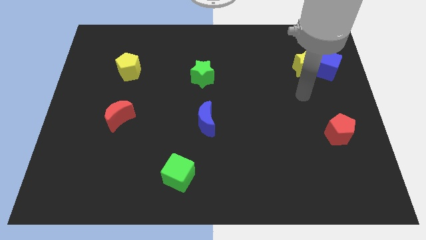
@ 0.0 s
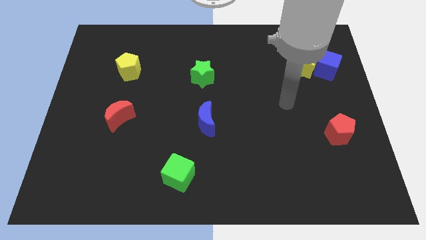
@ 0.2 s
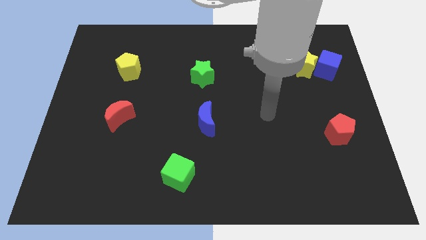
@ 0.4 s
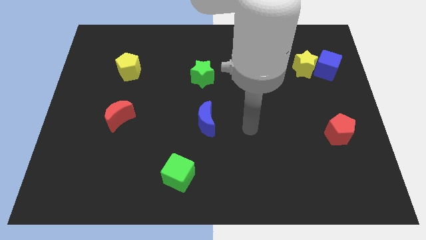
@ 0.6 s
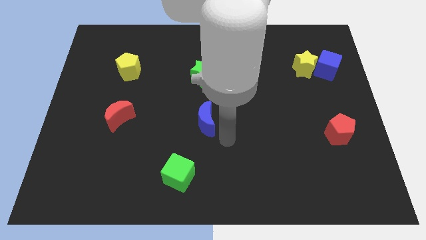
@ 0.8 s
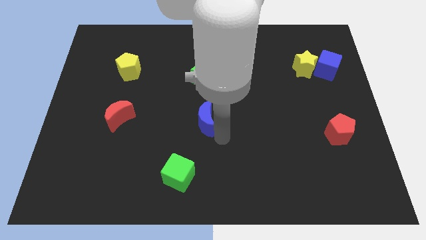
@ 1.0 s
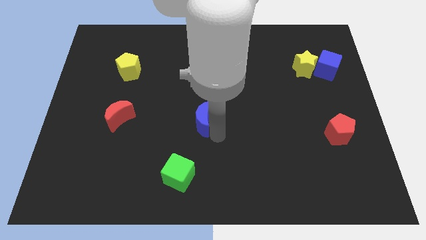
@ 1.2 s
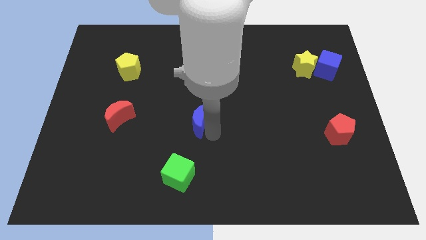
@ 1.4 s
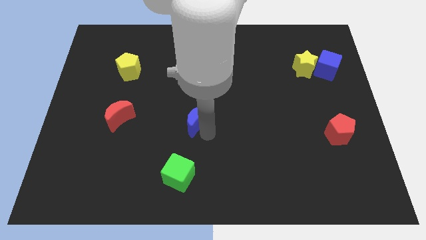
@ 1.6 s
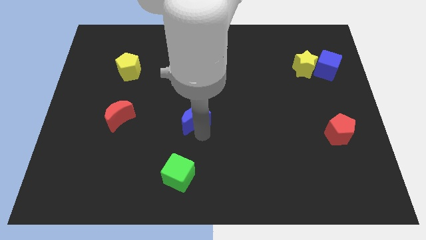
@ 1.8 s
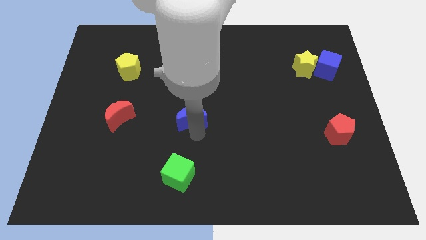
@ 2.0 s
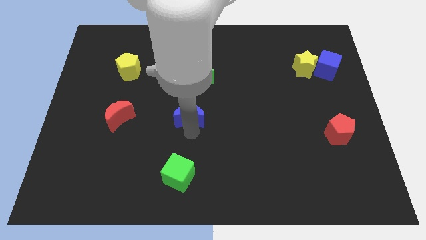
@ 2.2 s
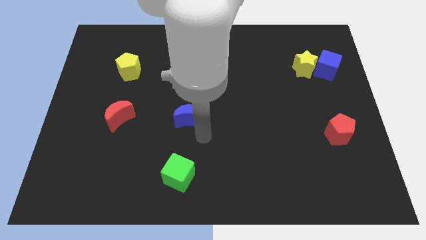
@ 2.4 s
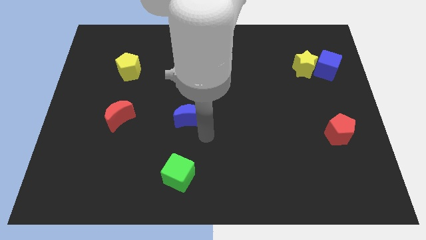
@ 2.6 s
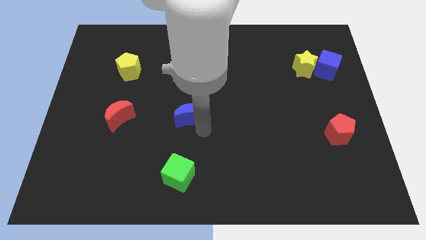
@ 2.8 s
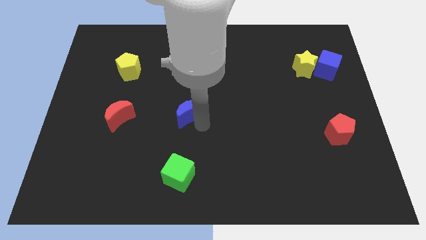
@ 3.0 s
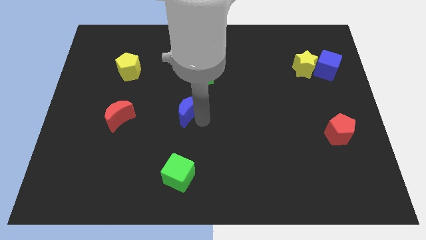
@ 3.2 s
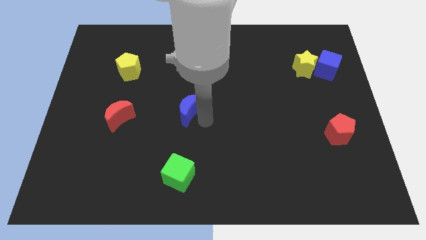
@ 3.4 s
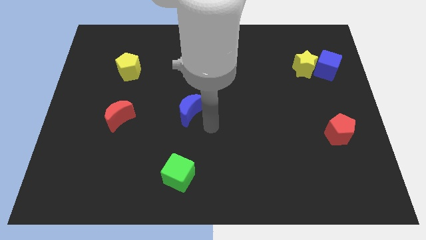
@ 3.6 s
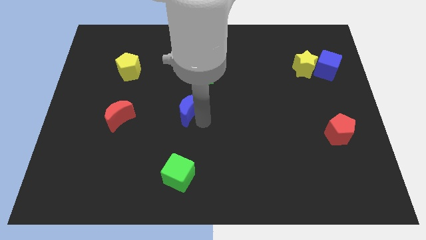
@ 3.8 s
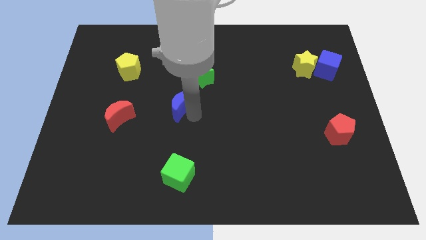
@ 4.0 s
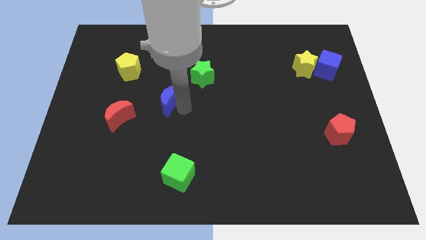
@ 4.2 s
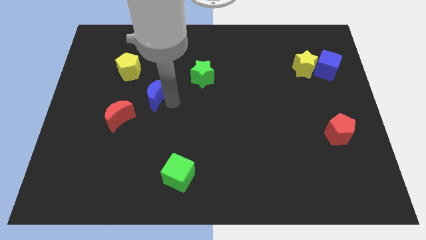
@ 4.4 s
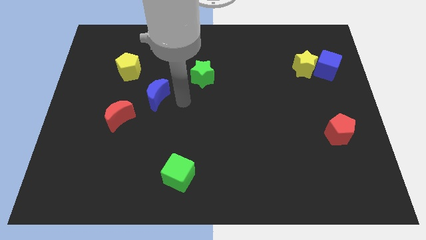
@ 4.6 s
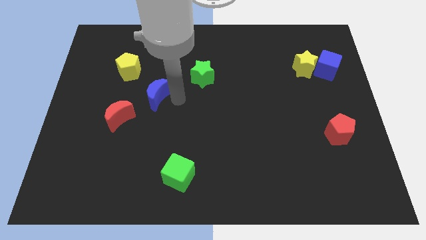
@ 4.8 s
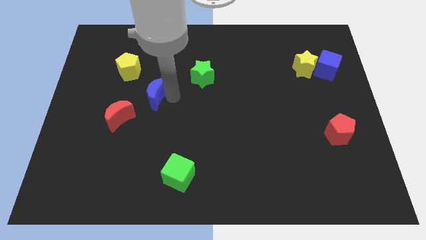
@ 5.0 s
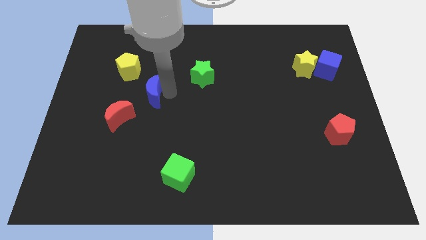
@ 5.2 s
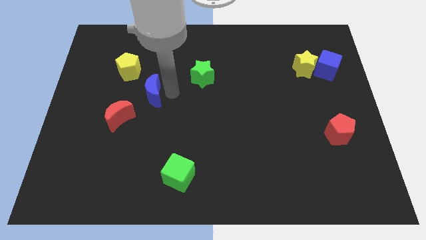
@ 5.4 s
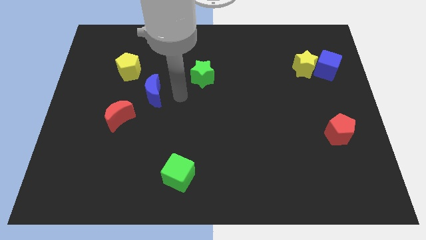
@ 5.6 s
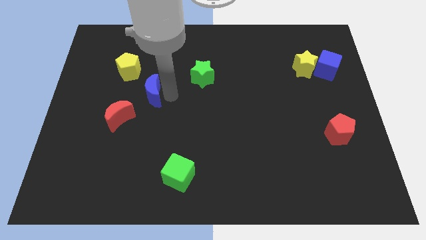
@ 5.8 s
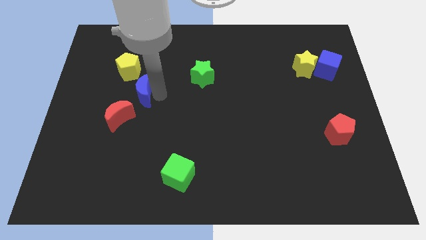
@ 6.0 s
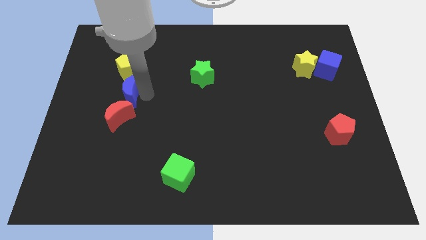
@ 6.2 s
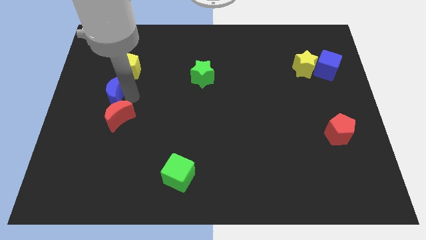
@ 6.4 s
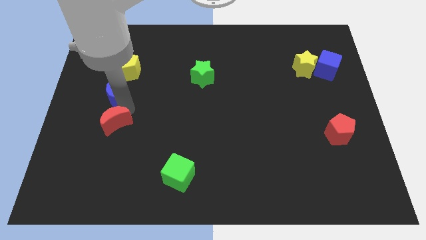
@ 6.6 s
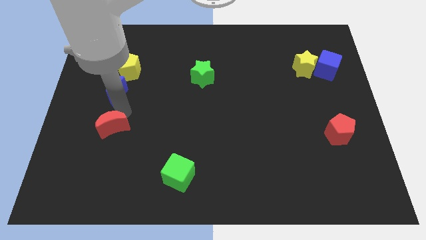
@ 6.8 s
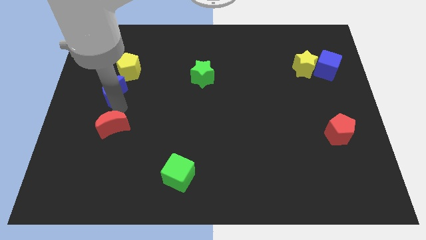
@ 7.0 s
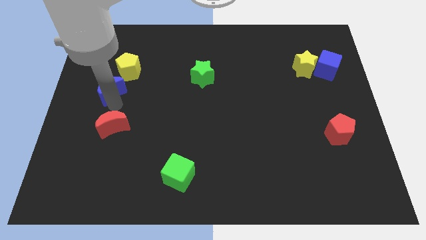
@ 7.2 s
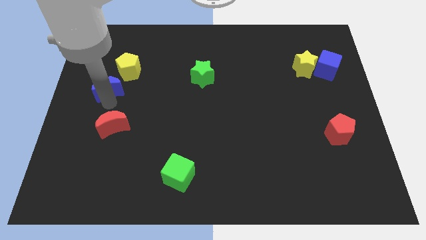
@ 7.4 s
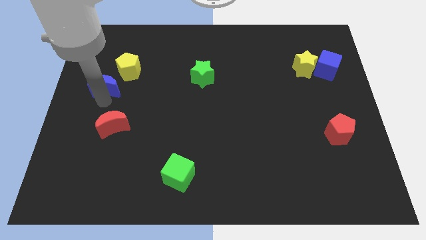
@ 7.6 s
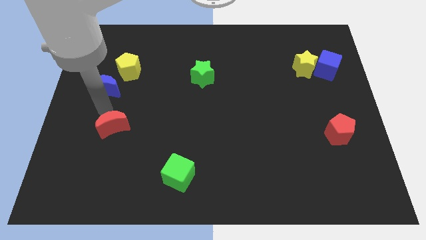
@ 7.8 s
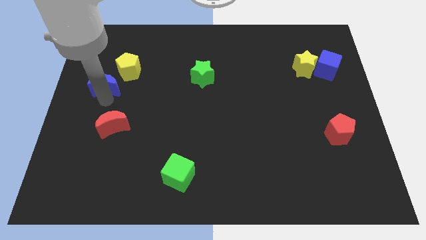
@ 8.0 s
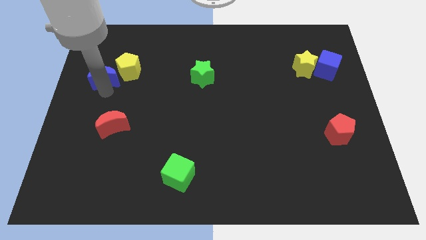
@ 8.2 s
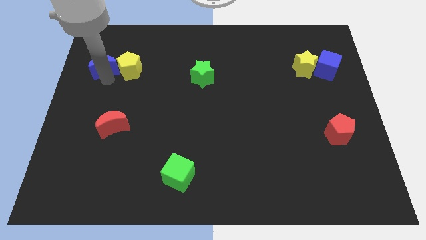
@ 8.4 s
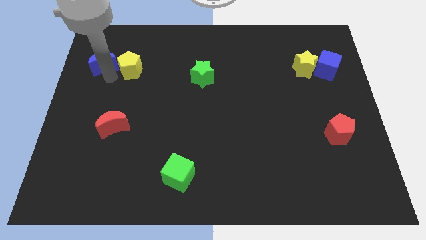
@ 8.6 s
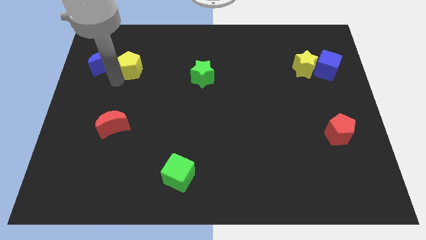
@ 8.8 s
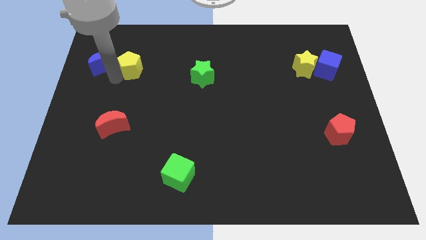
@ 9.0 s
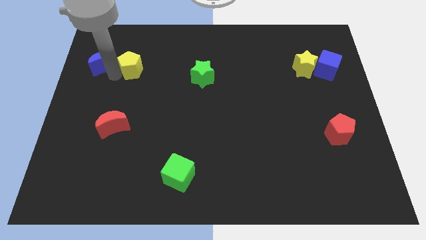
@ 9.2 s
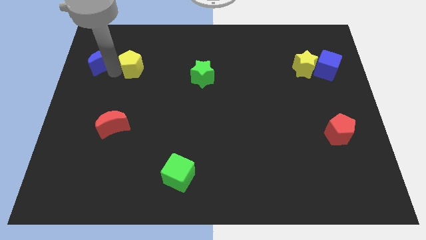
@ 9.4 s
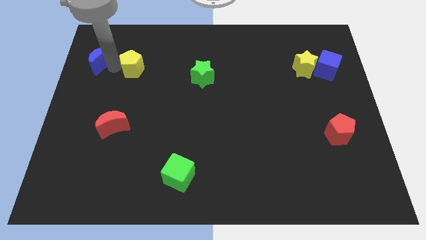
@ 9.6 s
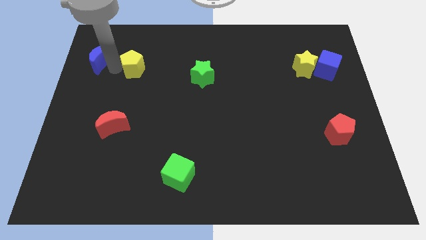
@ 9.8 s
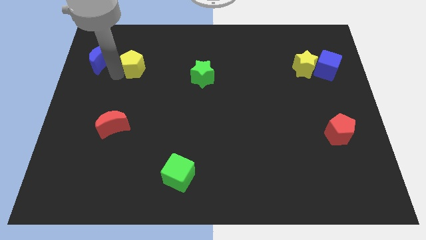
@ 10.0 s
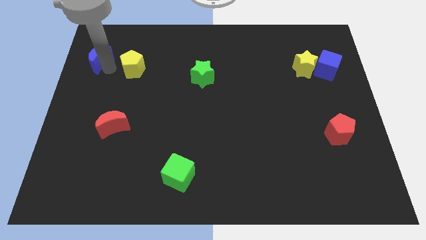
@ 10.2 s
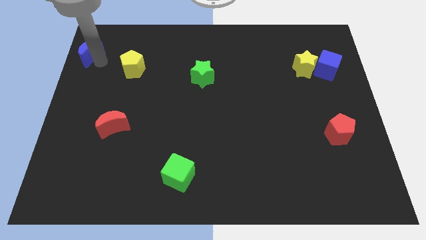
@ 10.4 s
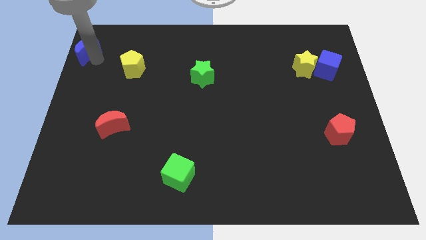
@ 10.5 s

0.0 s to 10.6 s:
slide the blue moon to the top left of the board
